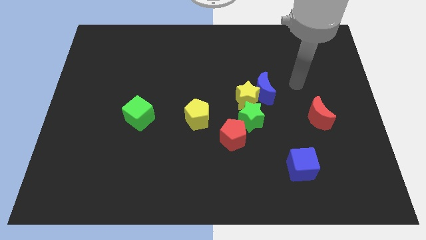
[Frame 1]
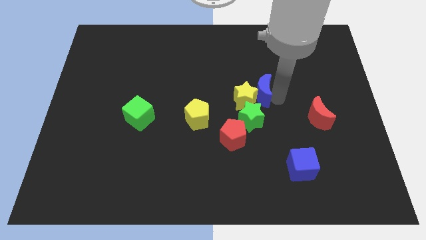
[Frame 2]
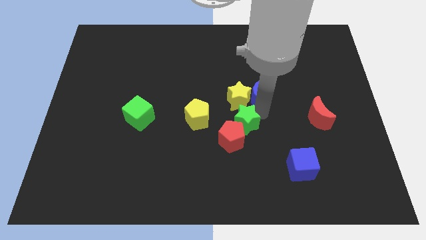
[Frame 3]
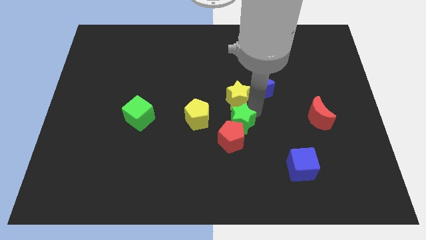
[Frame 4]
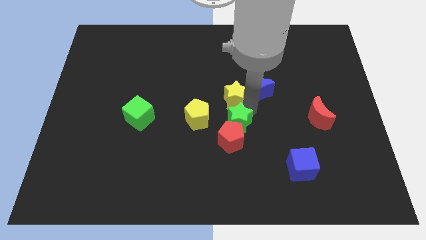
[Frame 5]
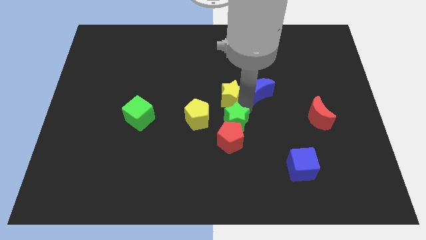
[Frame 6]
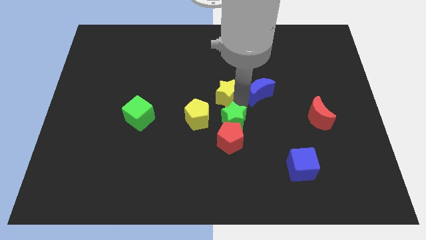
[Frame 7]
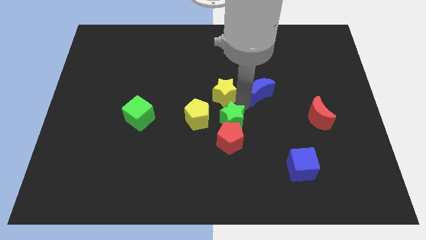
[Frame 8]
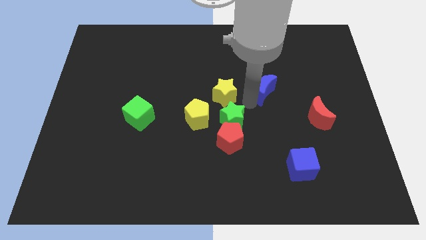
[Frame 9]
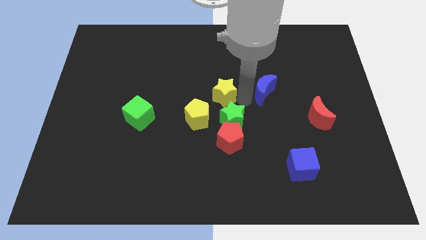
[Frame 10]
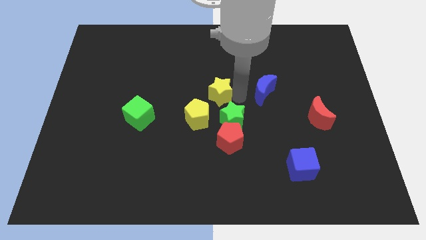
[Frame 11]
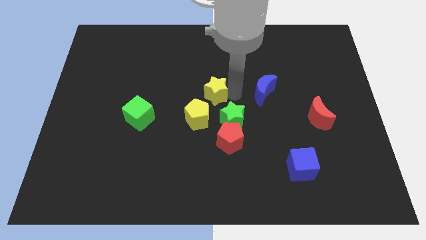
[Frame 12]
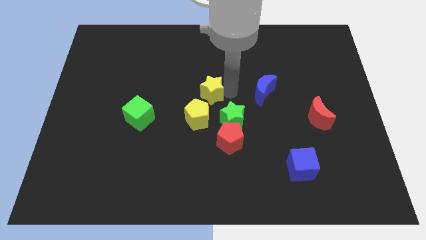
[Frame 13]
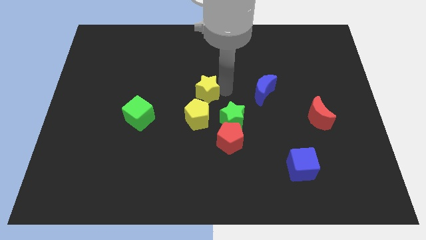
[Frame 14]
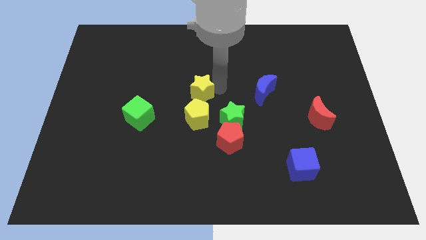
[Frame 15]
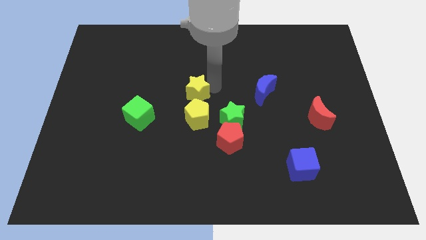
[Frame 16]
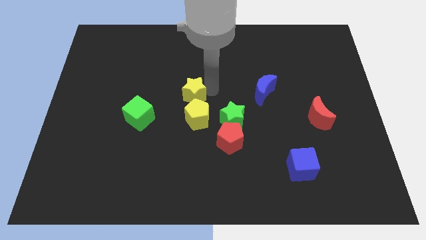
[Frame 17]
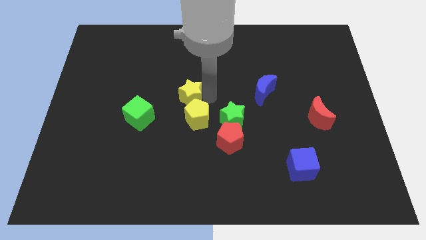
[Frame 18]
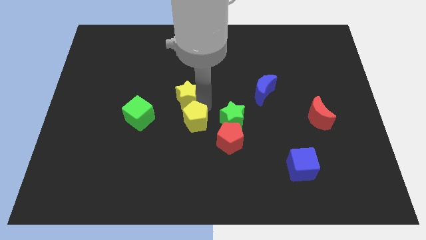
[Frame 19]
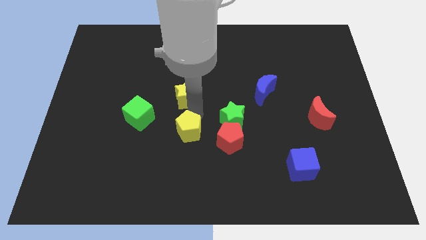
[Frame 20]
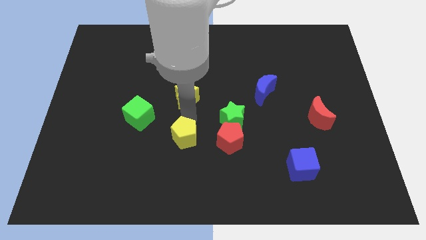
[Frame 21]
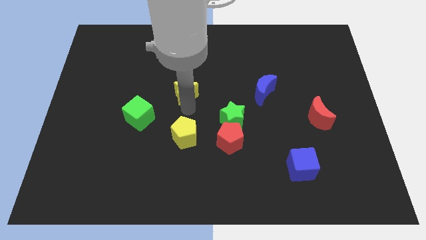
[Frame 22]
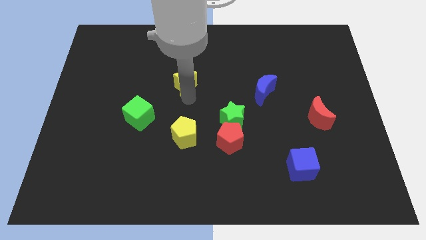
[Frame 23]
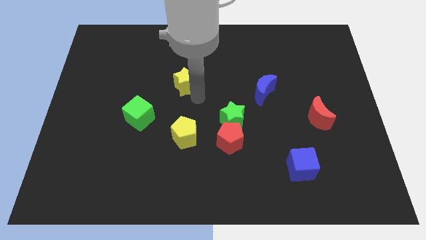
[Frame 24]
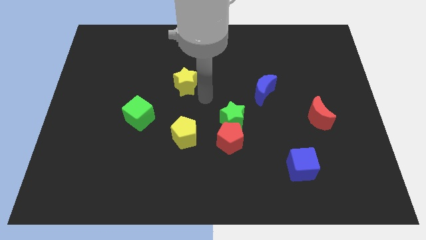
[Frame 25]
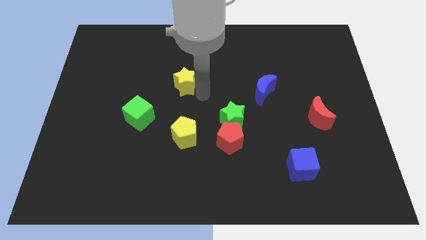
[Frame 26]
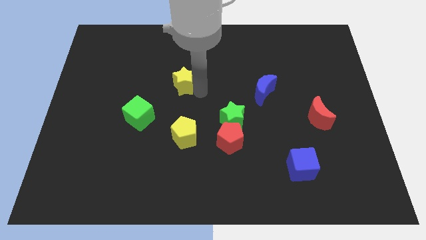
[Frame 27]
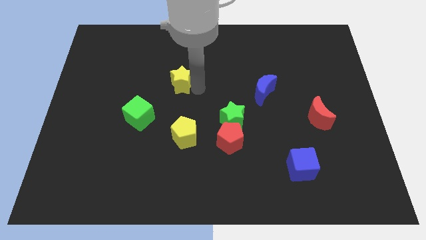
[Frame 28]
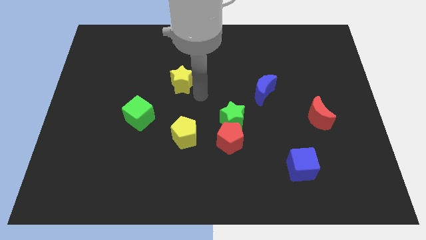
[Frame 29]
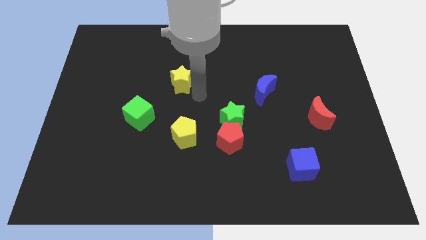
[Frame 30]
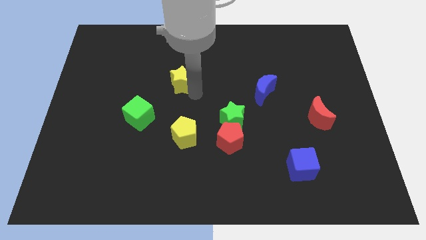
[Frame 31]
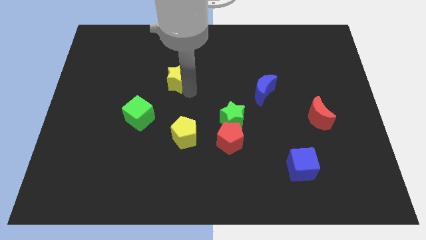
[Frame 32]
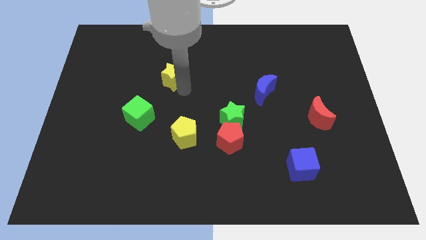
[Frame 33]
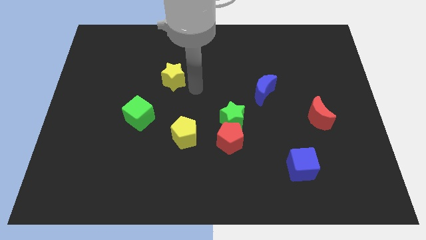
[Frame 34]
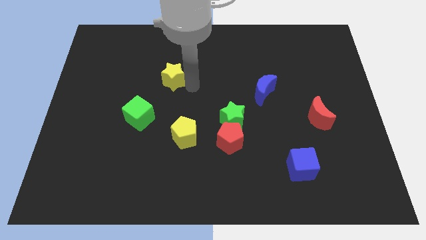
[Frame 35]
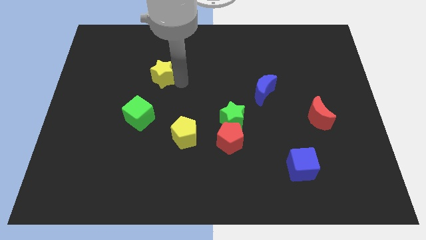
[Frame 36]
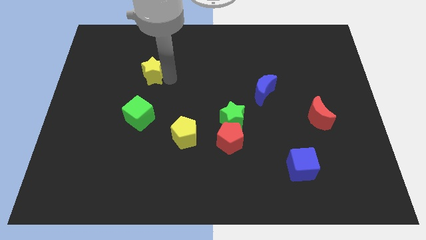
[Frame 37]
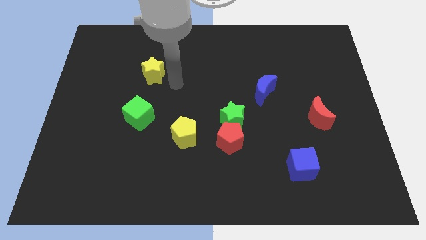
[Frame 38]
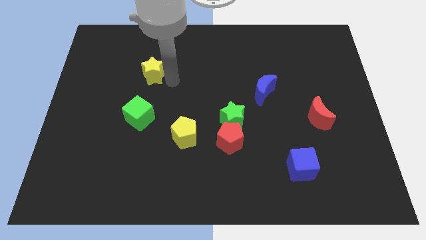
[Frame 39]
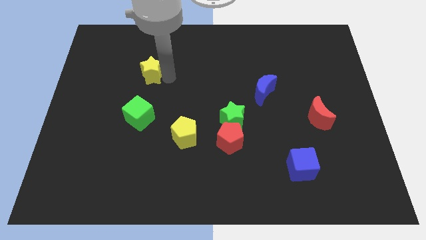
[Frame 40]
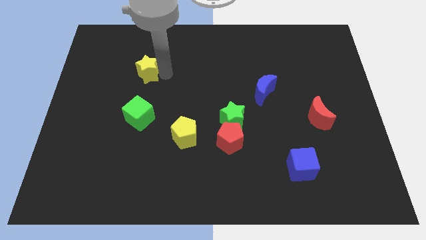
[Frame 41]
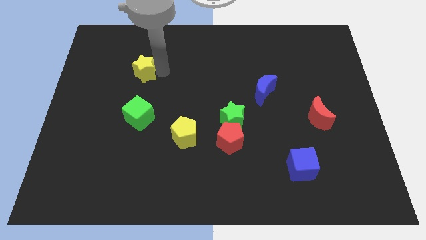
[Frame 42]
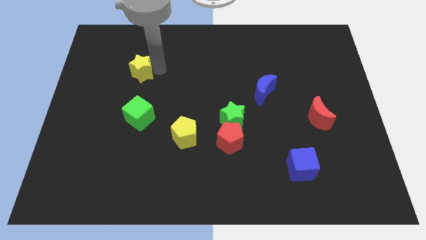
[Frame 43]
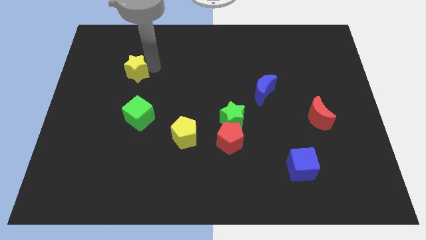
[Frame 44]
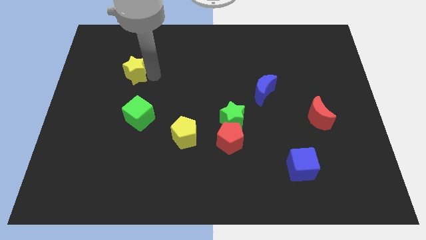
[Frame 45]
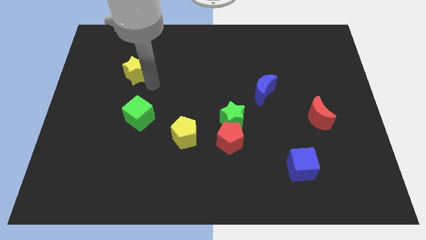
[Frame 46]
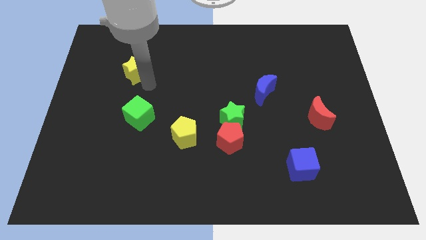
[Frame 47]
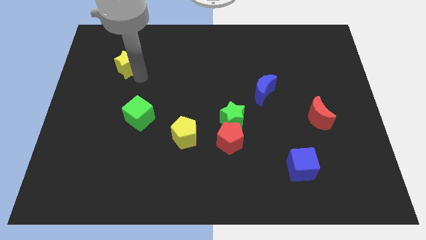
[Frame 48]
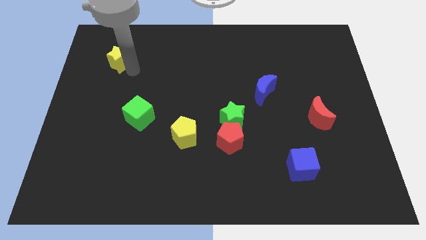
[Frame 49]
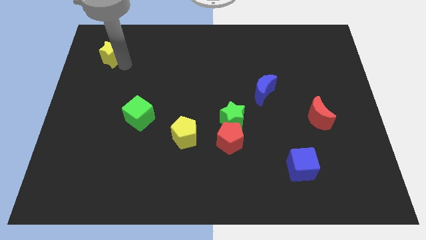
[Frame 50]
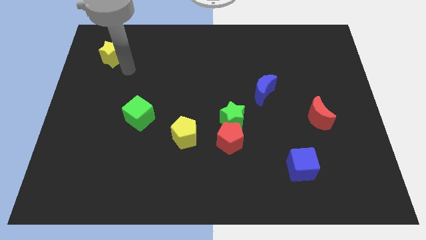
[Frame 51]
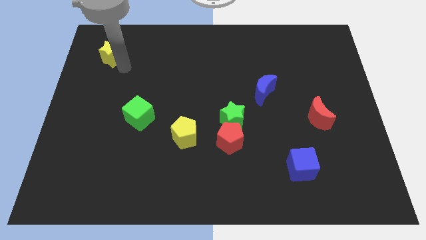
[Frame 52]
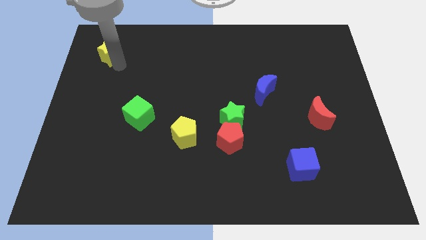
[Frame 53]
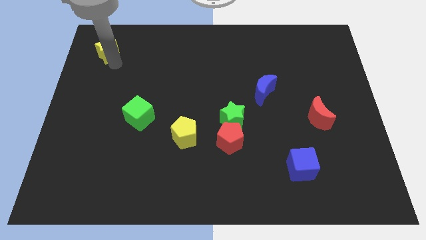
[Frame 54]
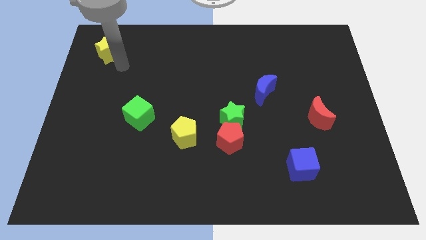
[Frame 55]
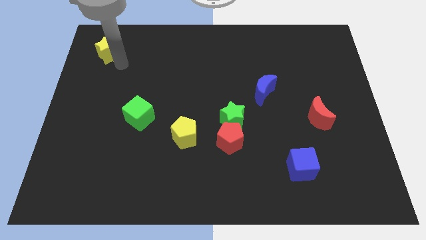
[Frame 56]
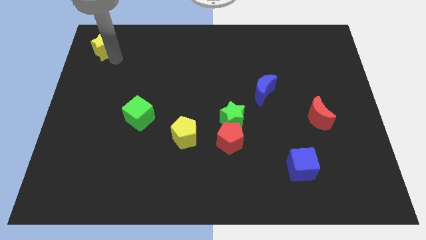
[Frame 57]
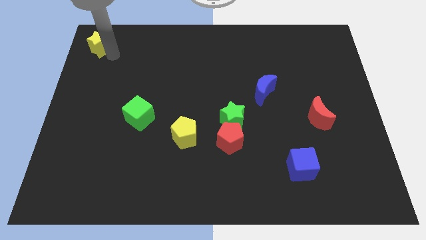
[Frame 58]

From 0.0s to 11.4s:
slide the yellow star to the top left of the board
